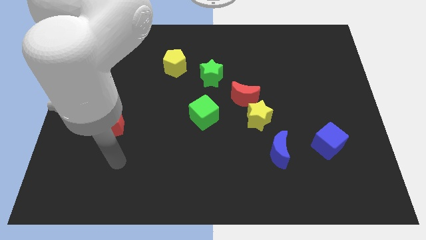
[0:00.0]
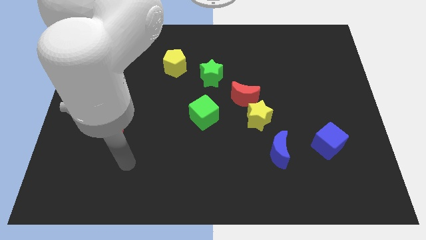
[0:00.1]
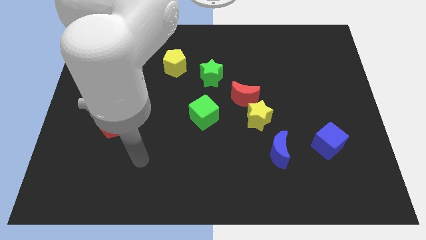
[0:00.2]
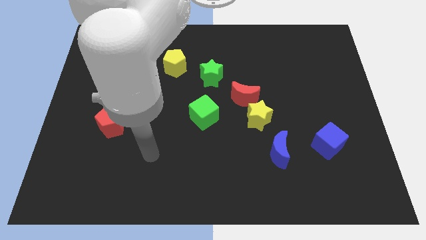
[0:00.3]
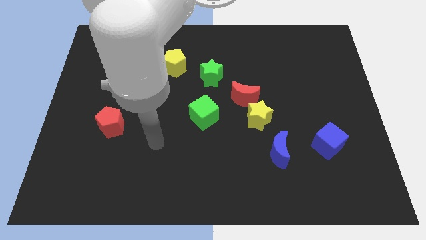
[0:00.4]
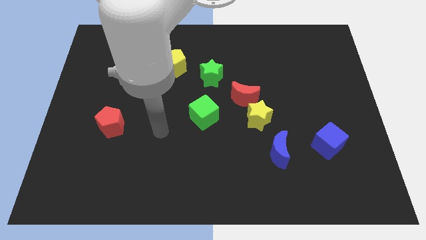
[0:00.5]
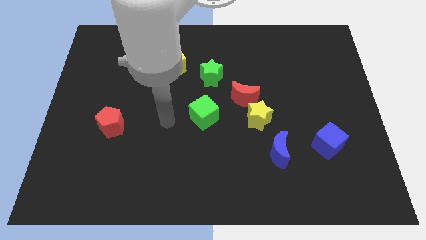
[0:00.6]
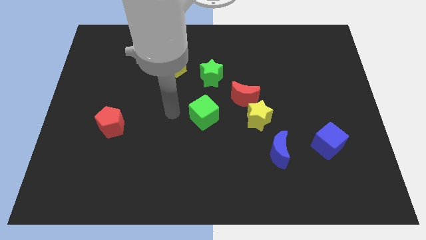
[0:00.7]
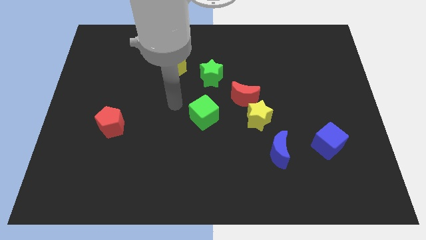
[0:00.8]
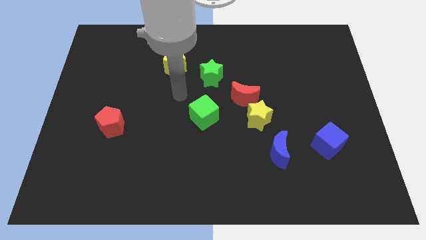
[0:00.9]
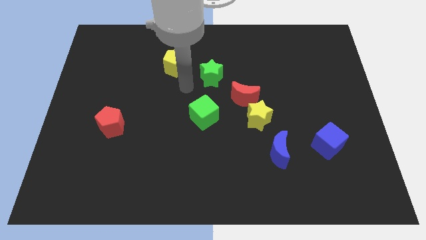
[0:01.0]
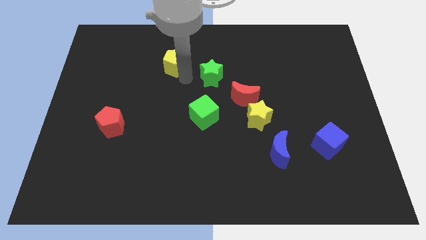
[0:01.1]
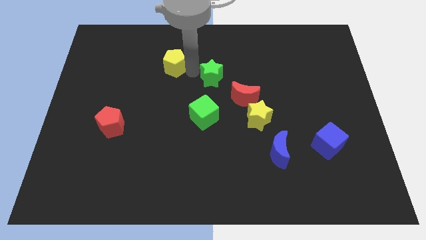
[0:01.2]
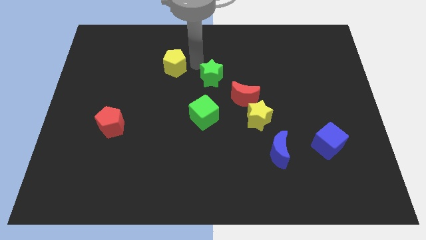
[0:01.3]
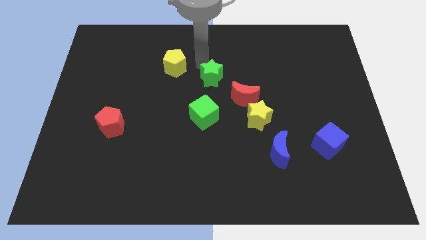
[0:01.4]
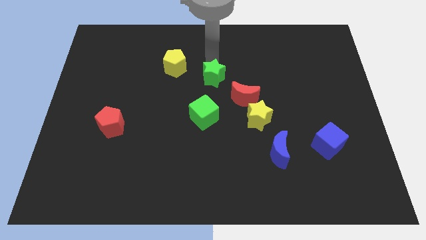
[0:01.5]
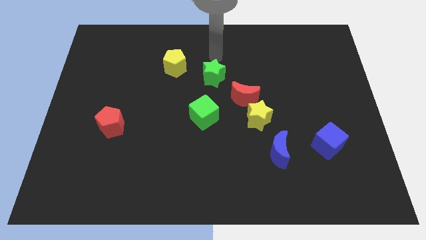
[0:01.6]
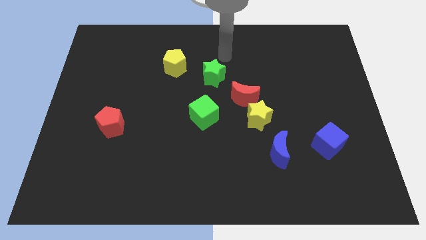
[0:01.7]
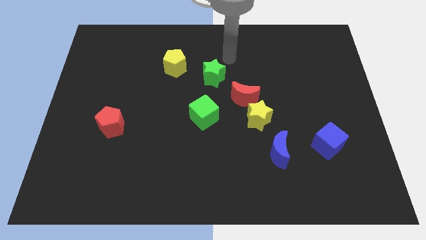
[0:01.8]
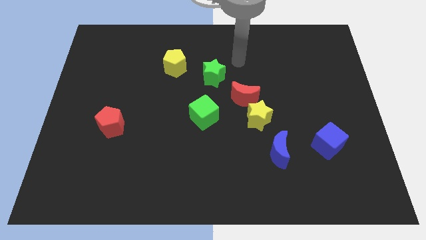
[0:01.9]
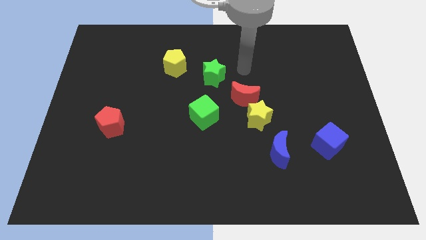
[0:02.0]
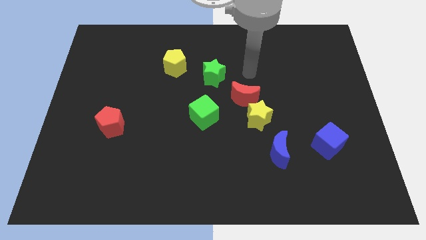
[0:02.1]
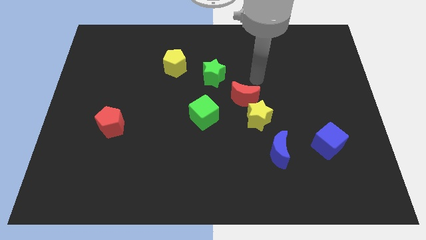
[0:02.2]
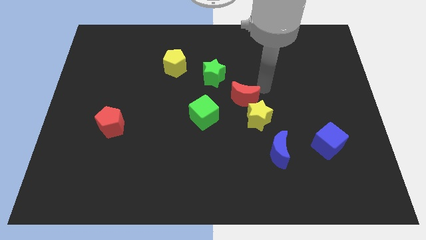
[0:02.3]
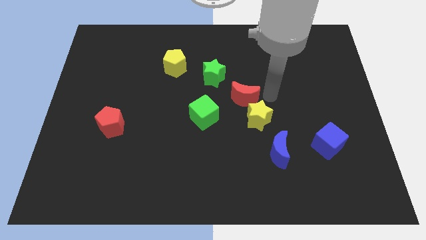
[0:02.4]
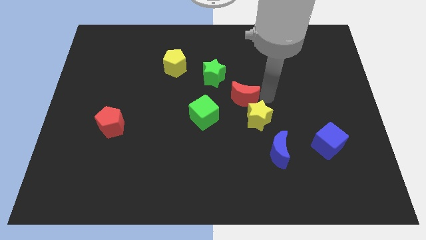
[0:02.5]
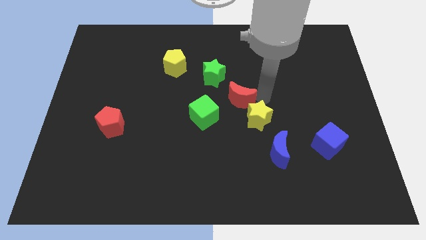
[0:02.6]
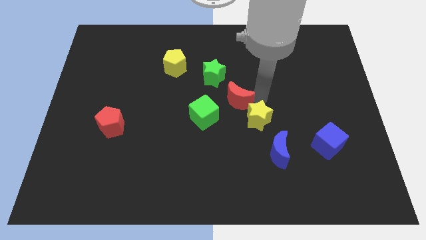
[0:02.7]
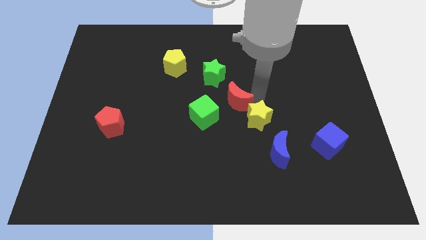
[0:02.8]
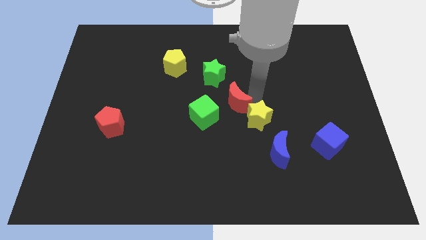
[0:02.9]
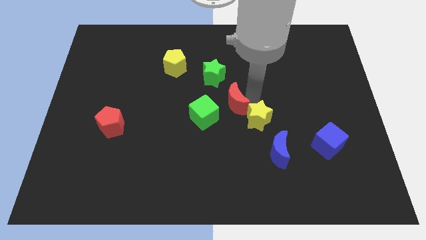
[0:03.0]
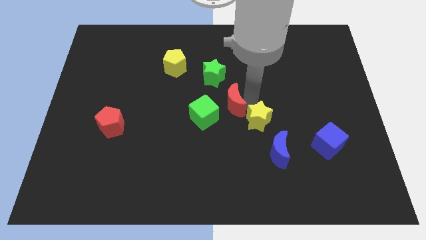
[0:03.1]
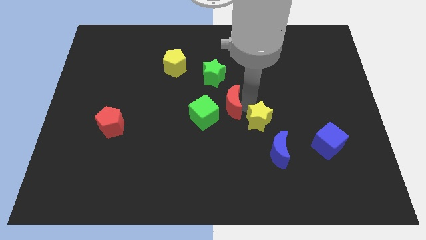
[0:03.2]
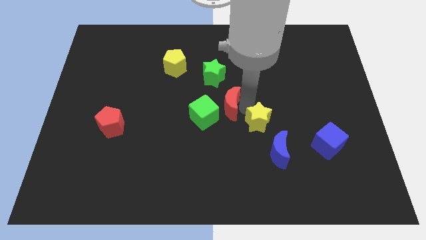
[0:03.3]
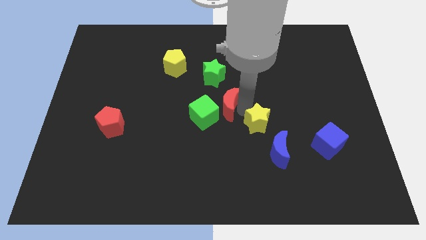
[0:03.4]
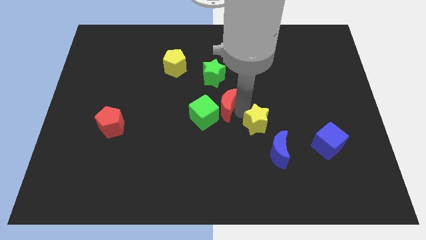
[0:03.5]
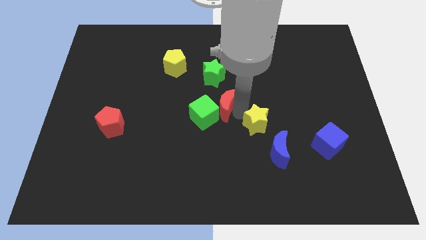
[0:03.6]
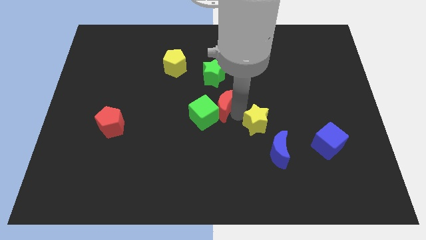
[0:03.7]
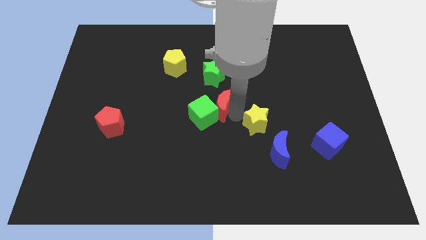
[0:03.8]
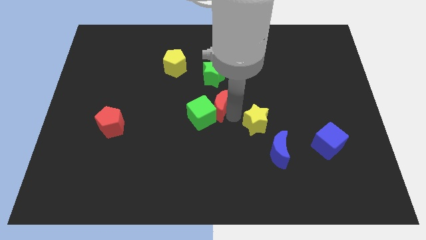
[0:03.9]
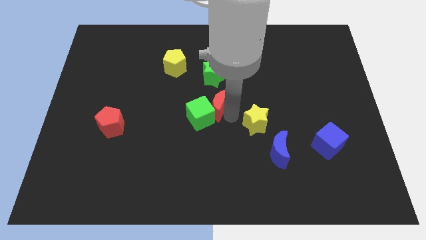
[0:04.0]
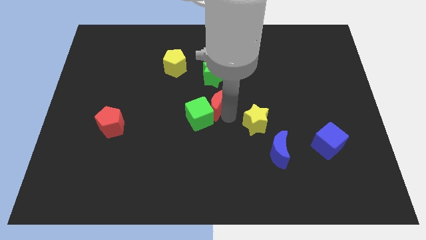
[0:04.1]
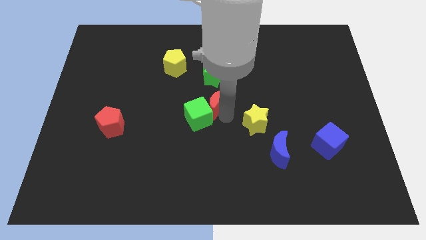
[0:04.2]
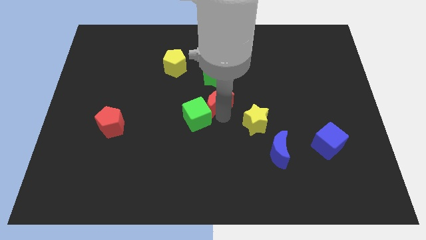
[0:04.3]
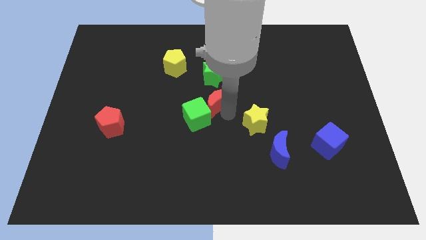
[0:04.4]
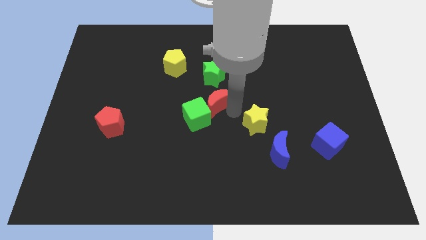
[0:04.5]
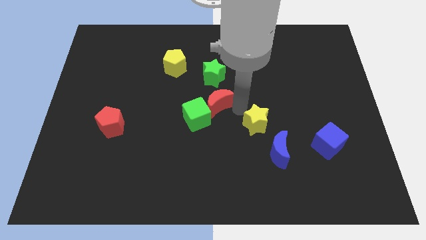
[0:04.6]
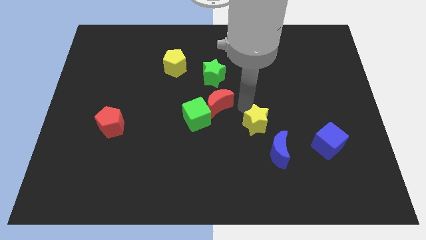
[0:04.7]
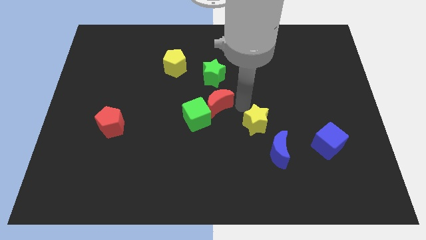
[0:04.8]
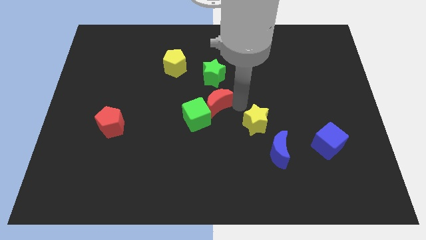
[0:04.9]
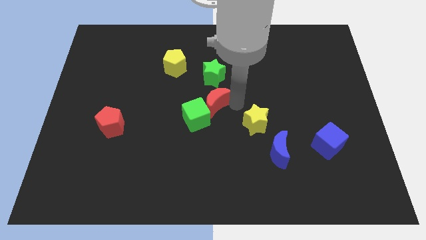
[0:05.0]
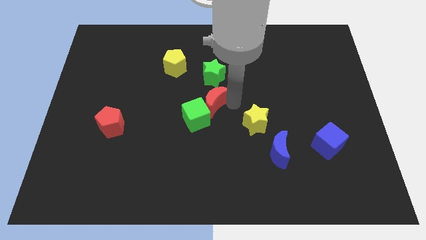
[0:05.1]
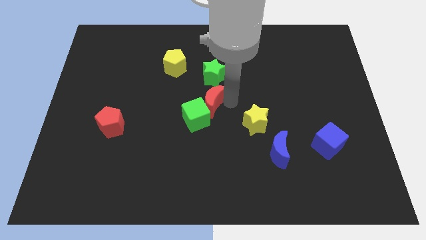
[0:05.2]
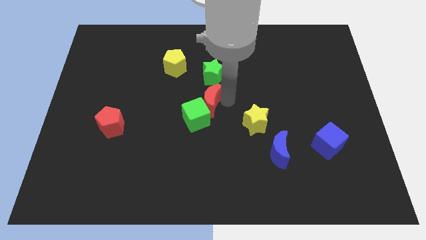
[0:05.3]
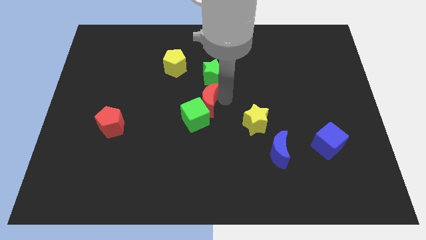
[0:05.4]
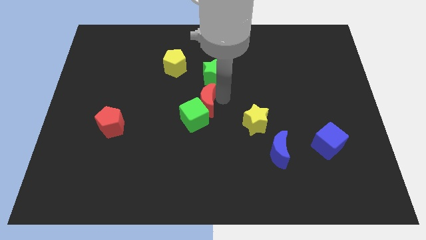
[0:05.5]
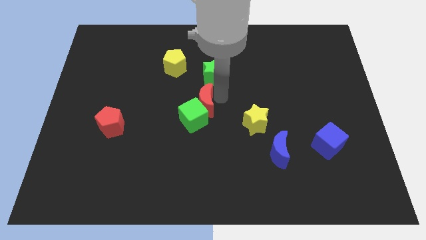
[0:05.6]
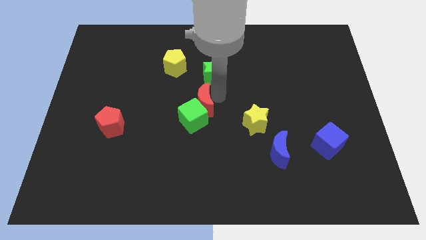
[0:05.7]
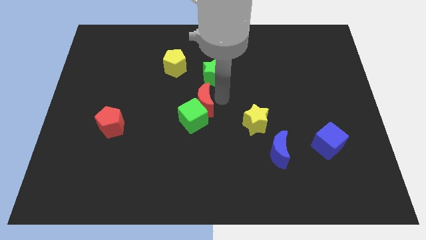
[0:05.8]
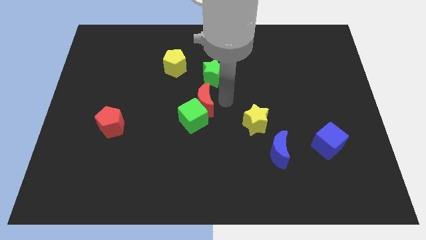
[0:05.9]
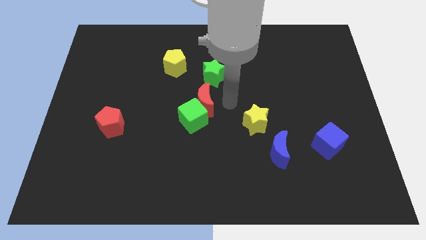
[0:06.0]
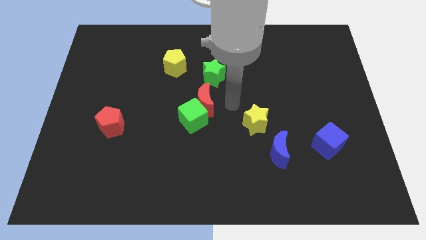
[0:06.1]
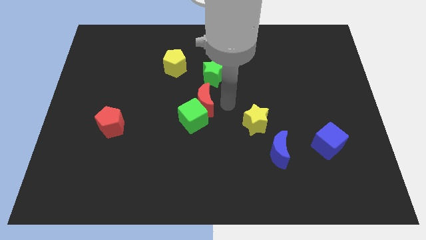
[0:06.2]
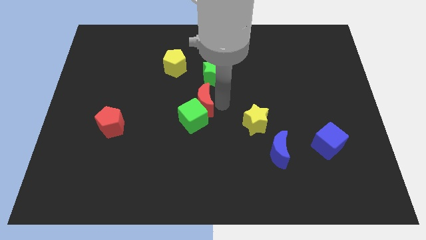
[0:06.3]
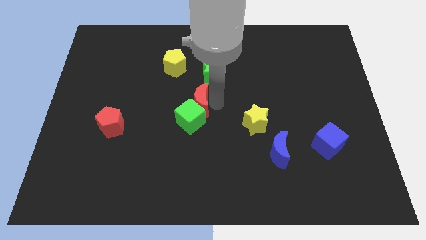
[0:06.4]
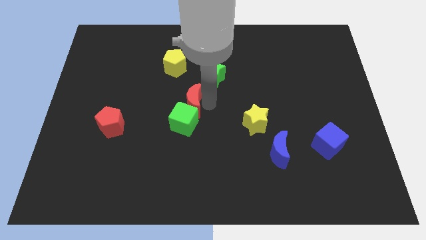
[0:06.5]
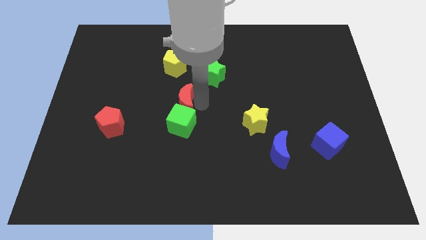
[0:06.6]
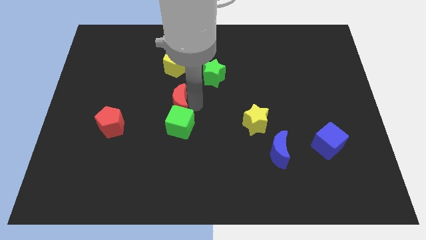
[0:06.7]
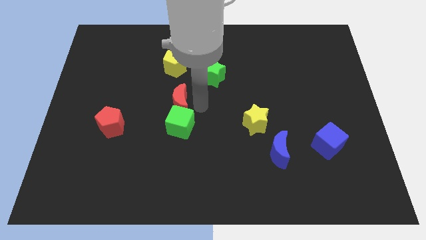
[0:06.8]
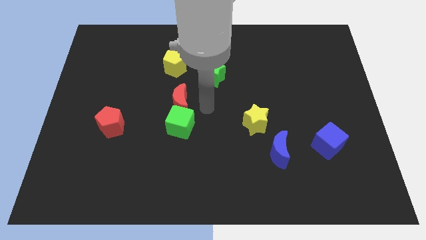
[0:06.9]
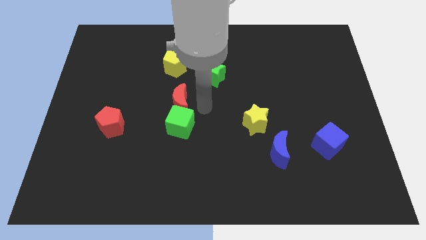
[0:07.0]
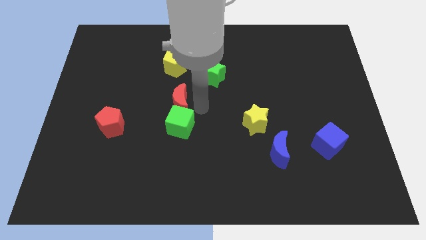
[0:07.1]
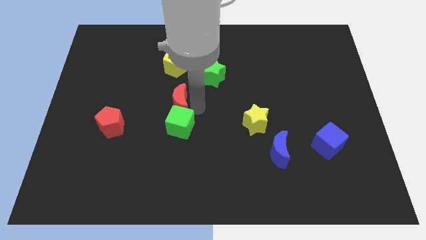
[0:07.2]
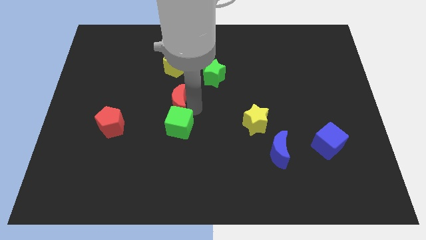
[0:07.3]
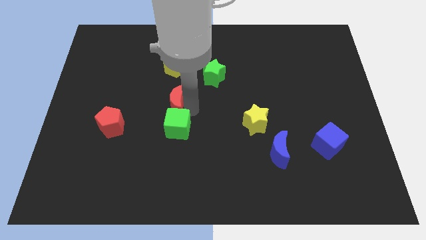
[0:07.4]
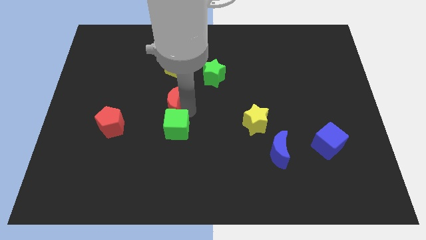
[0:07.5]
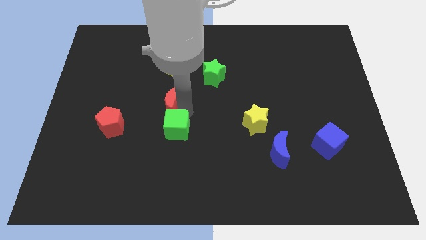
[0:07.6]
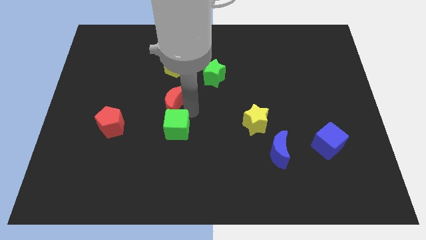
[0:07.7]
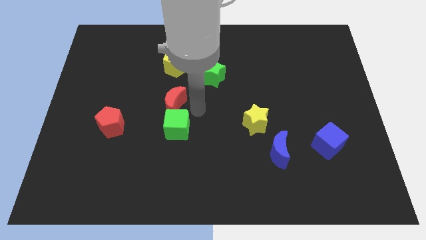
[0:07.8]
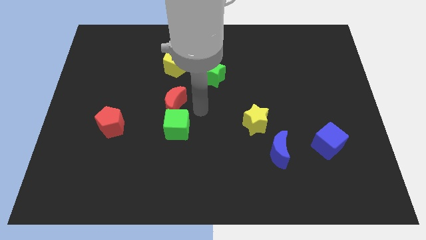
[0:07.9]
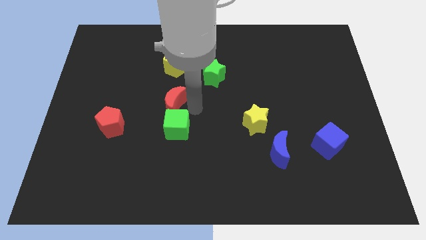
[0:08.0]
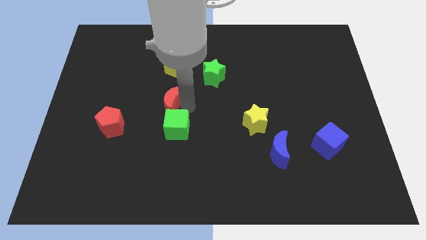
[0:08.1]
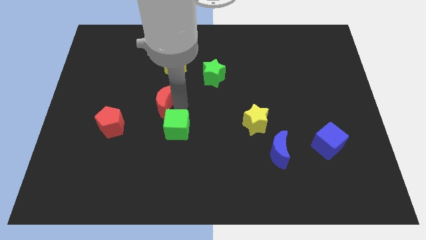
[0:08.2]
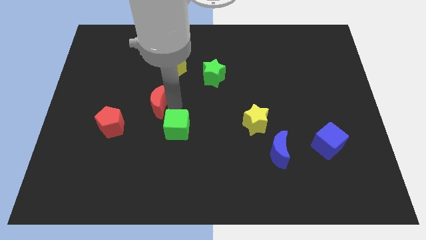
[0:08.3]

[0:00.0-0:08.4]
slide the red moon left
